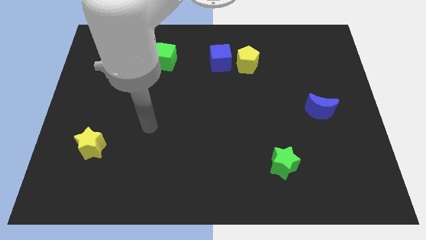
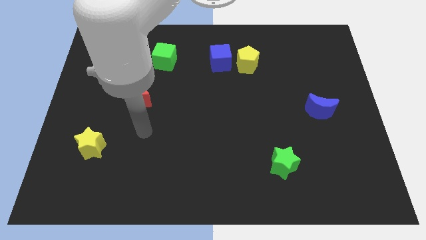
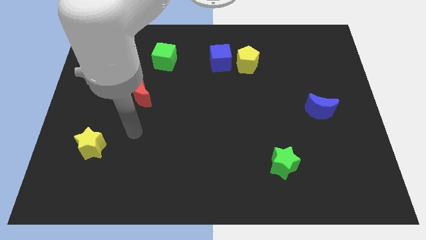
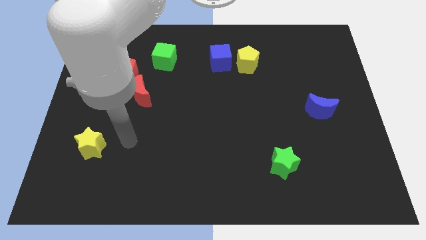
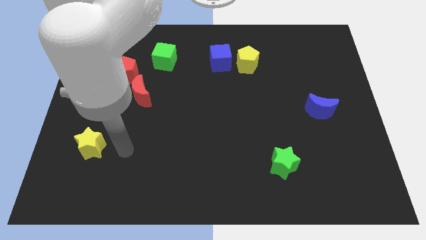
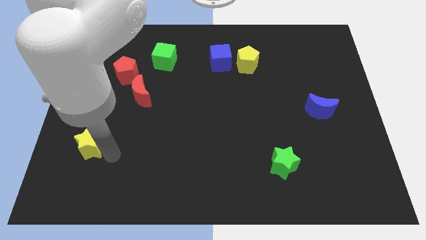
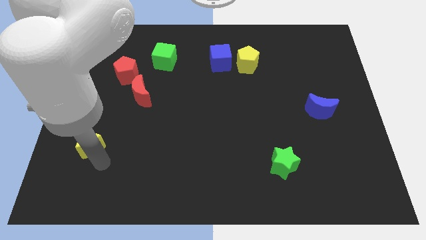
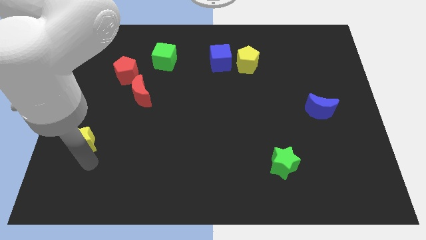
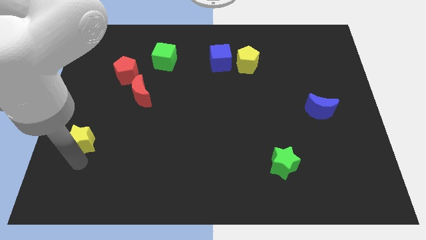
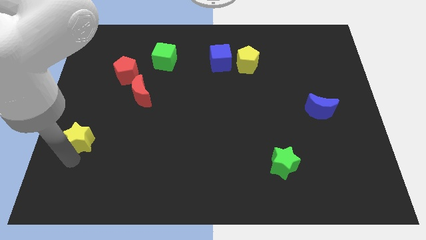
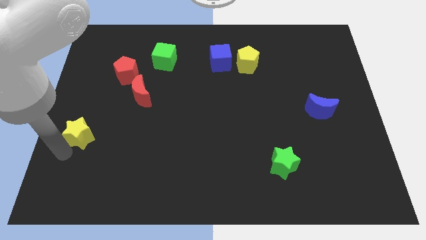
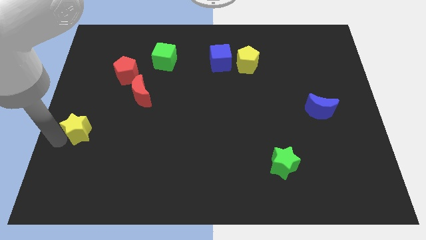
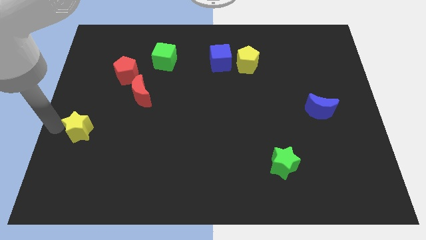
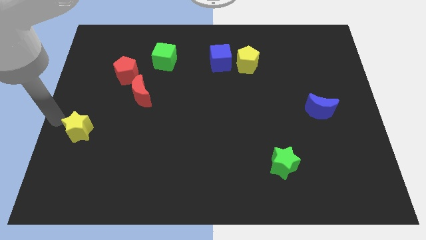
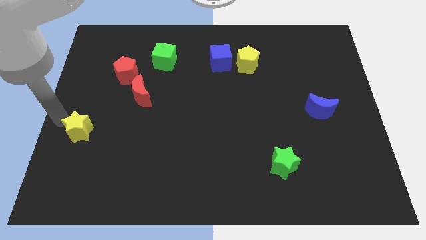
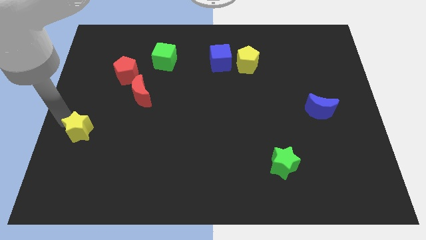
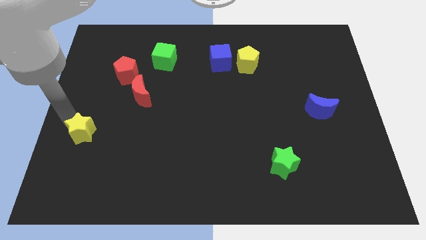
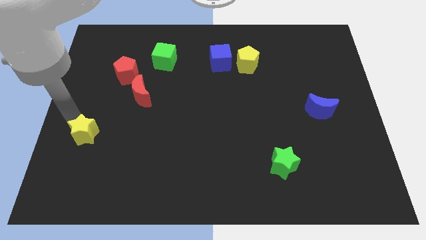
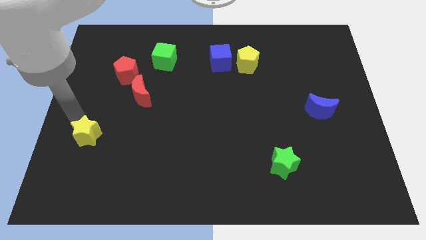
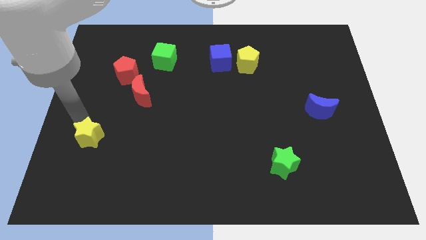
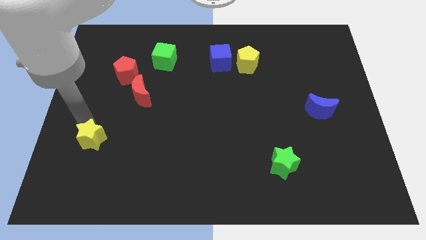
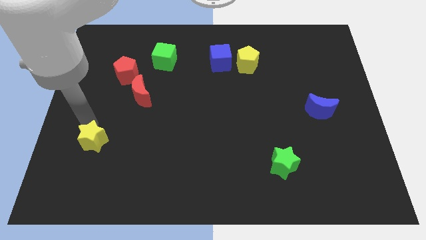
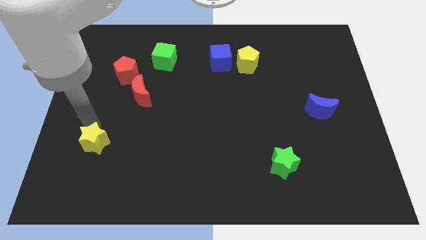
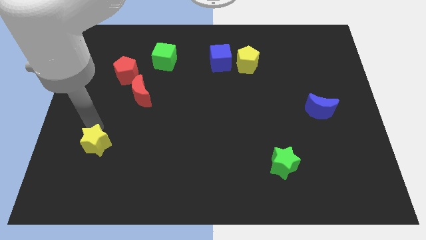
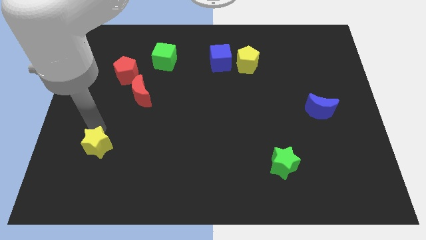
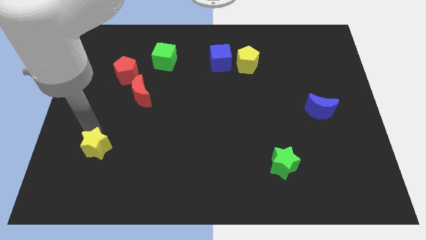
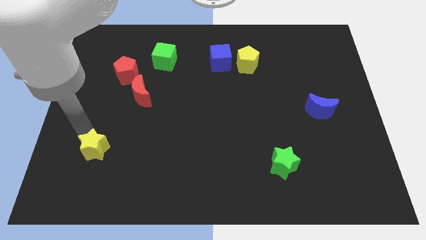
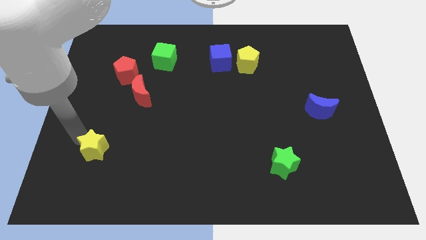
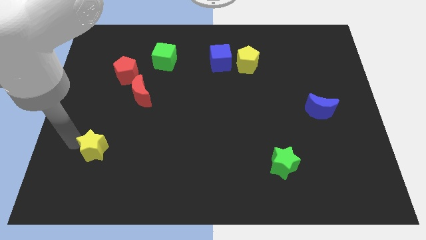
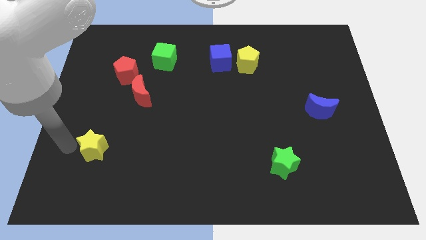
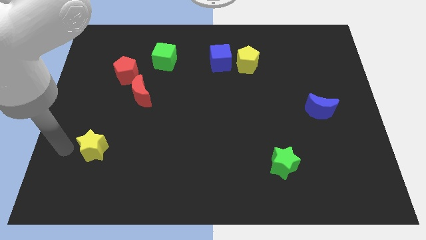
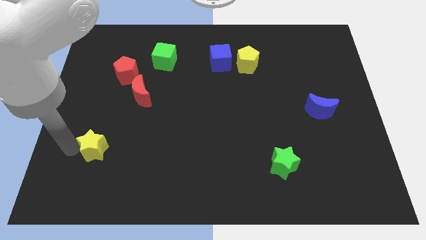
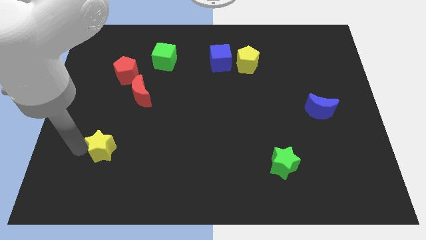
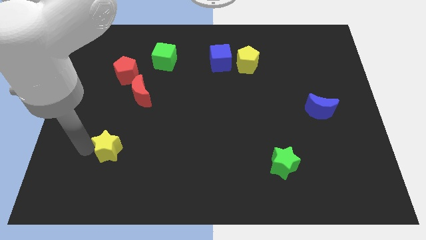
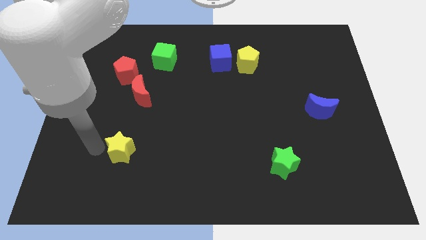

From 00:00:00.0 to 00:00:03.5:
push the yellow star to the right a bit

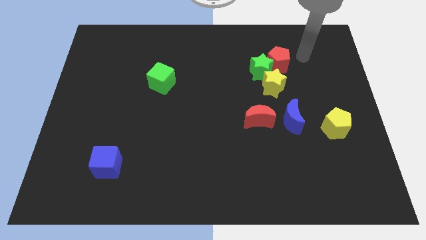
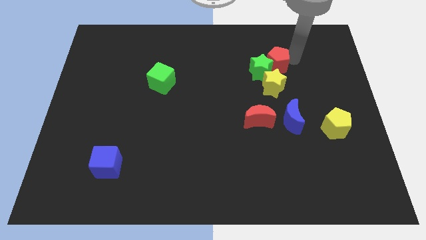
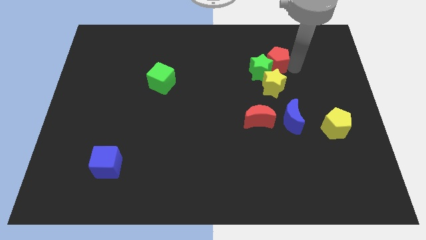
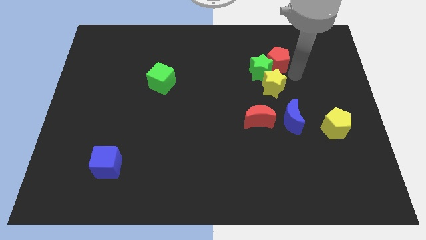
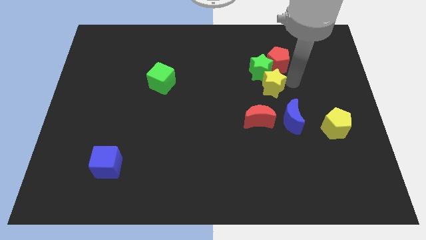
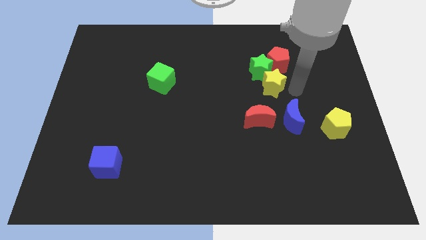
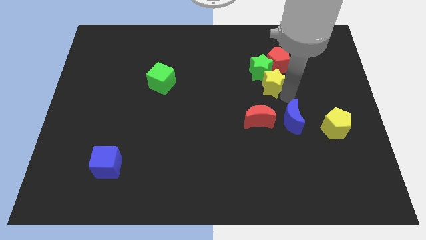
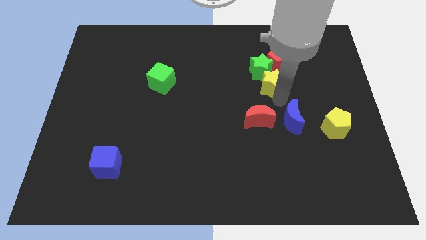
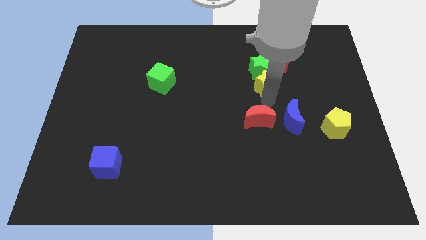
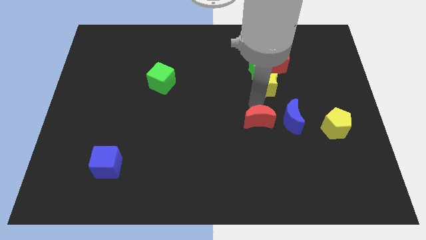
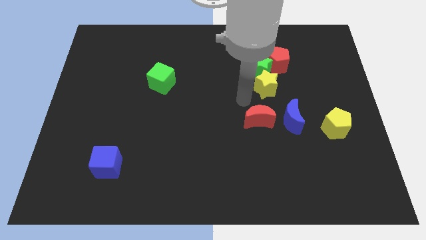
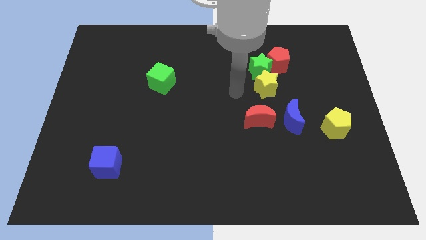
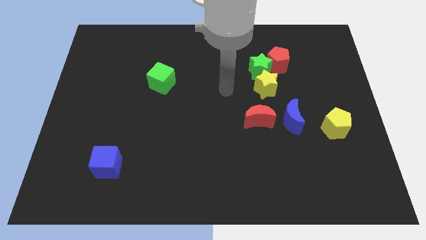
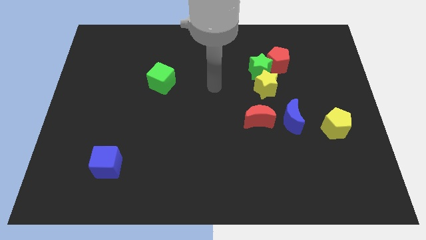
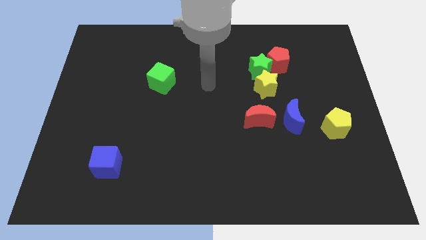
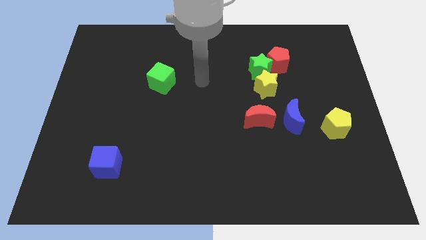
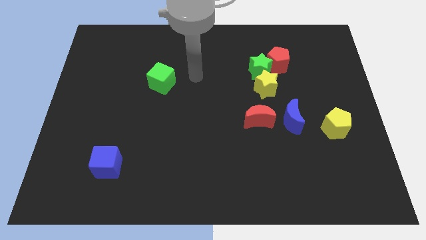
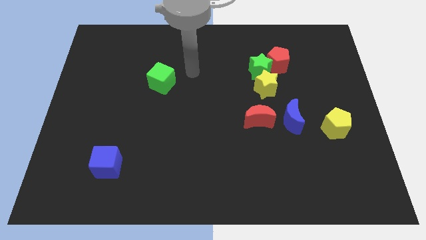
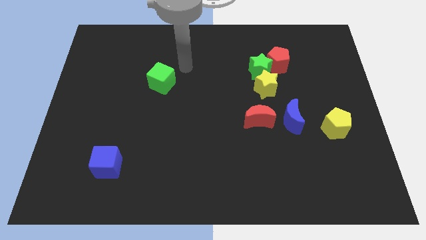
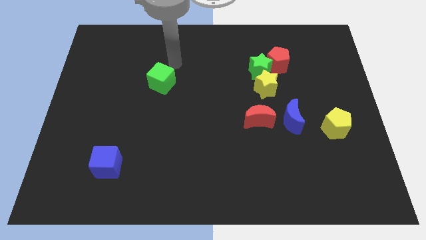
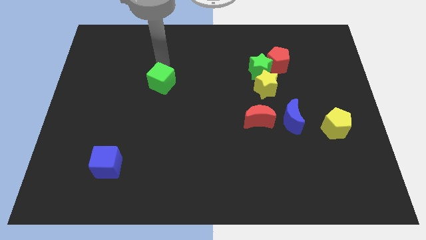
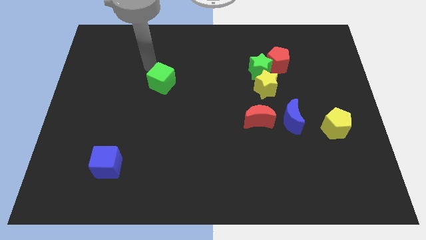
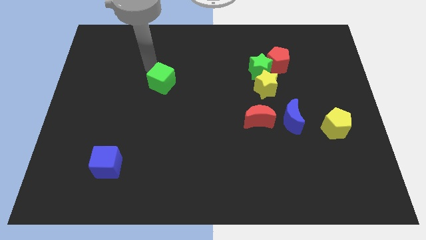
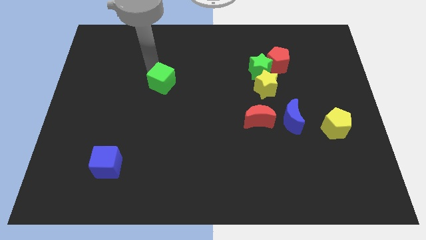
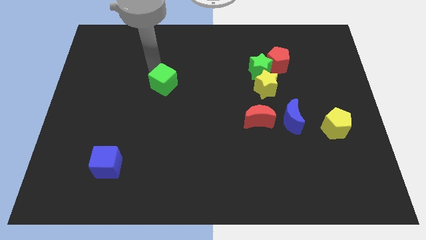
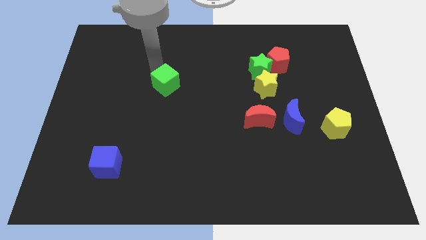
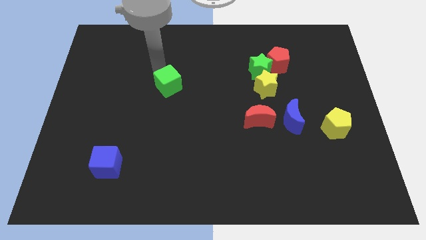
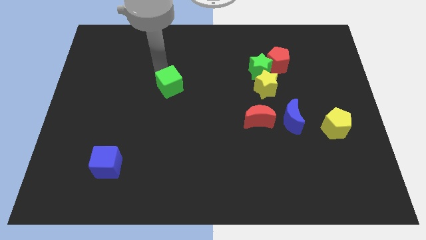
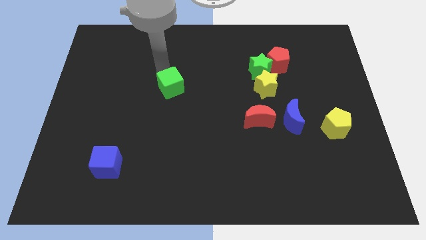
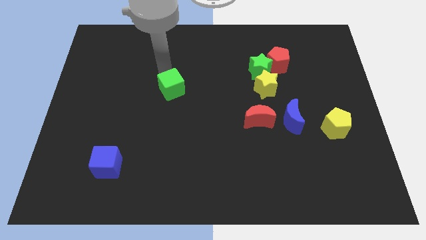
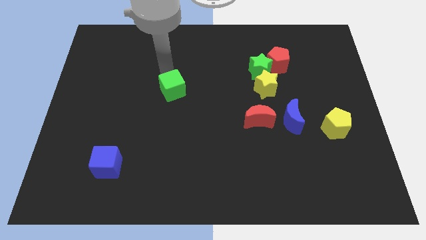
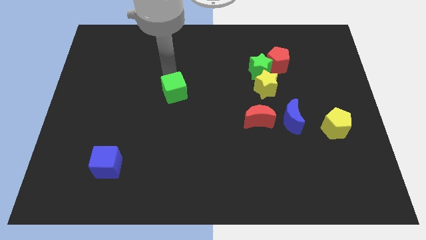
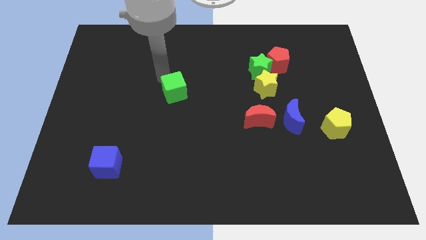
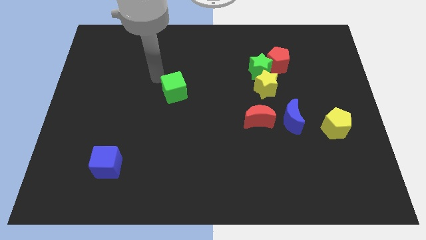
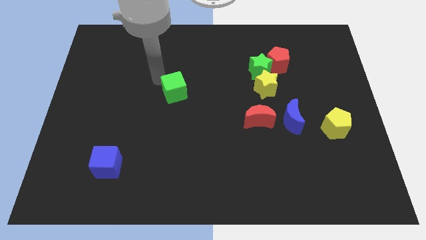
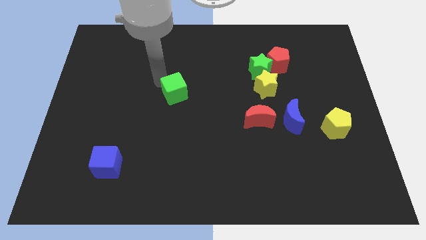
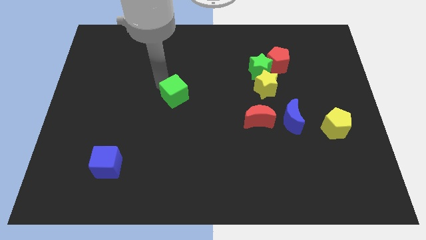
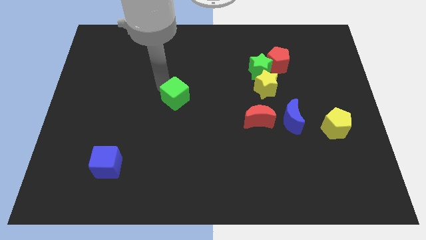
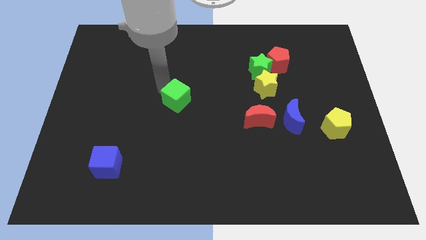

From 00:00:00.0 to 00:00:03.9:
slide the green cube somewhat diagonally downwards and to the right

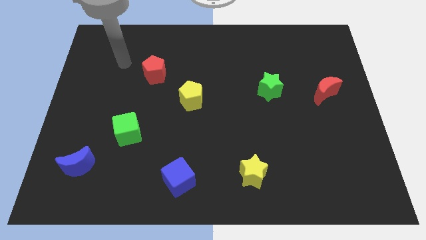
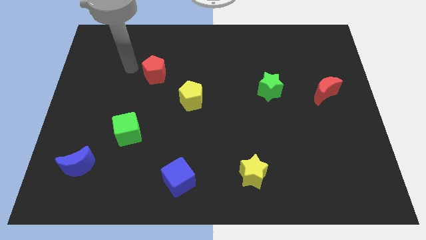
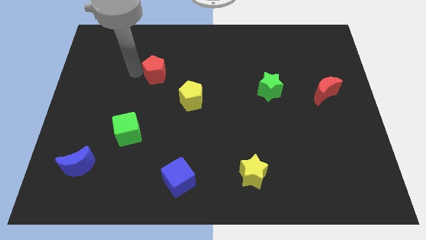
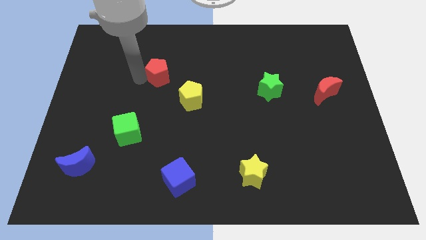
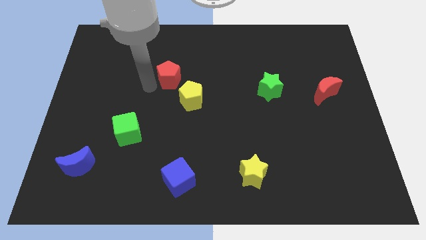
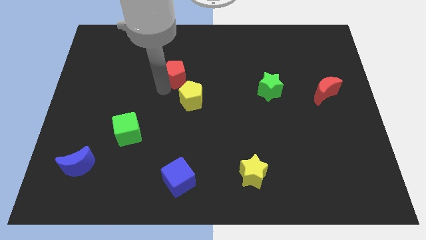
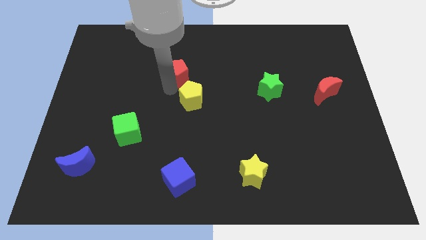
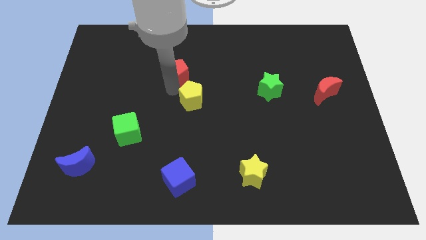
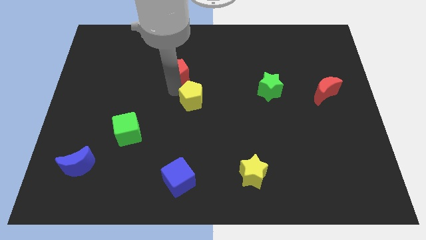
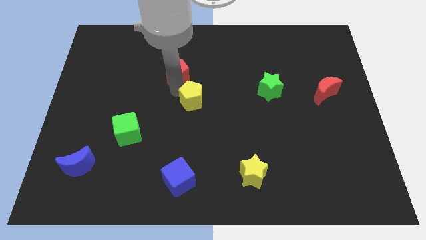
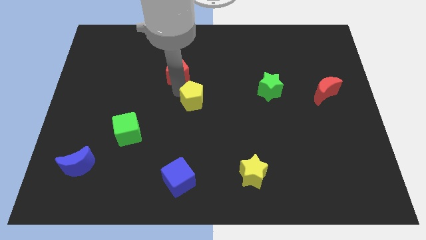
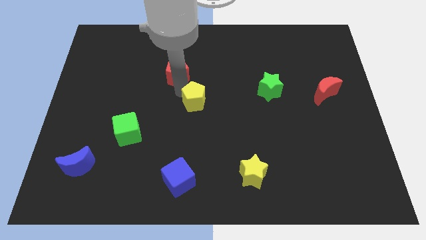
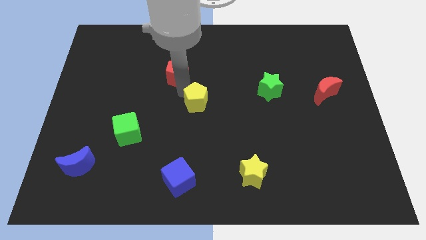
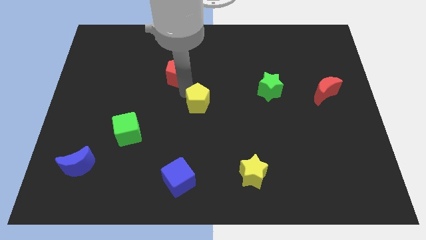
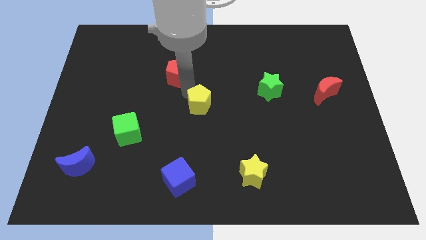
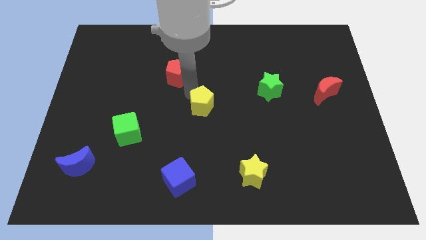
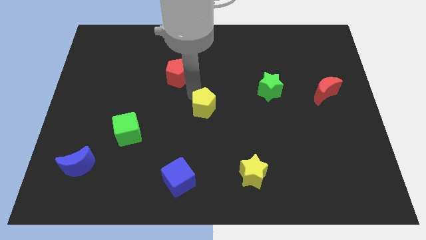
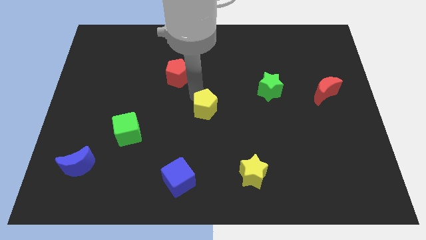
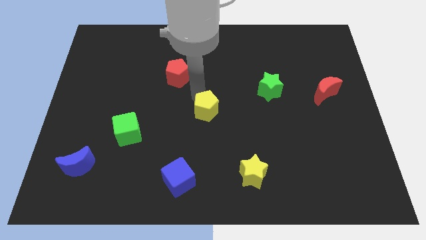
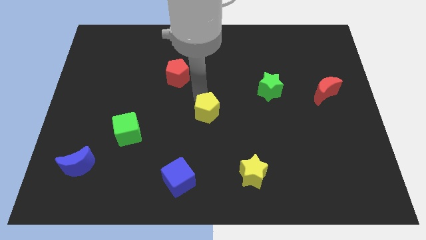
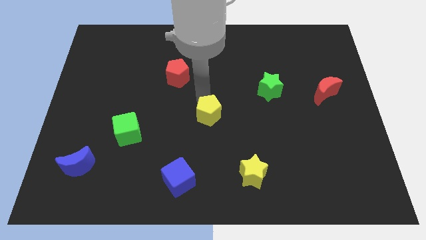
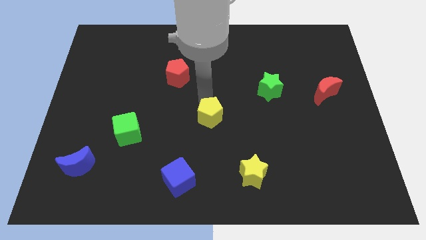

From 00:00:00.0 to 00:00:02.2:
slide the yellow pentagon a little bit down and right
